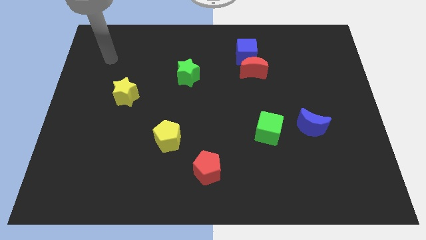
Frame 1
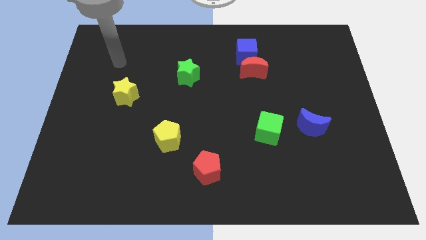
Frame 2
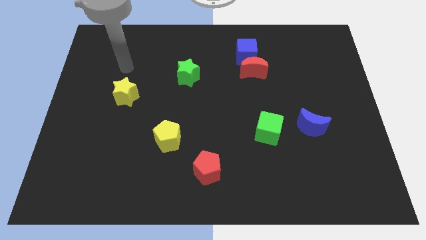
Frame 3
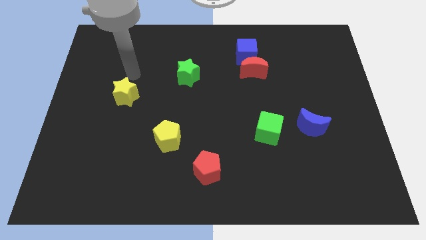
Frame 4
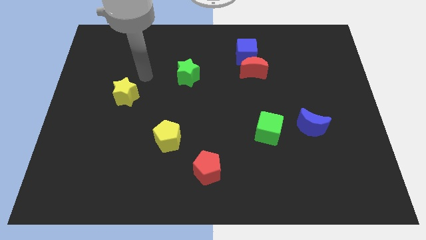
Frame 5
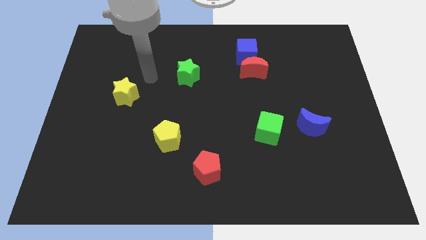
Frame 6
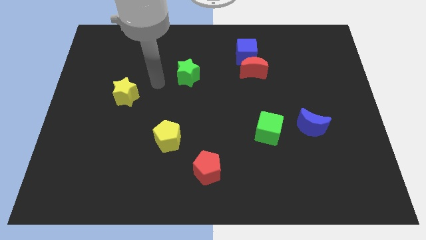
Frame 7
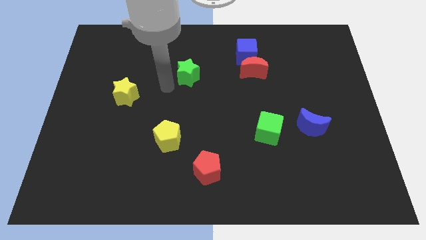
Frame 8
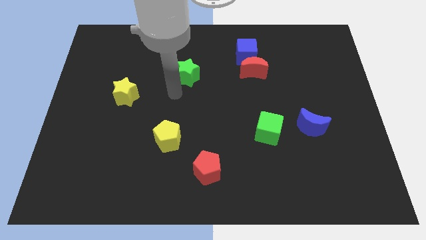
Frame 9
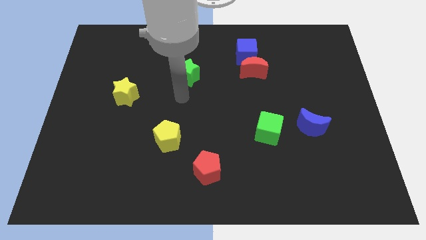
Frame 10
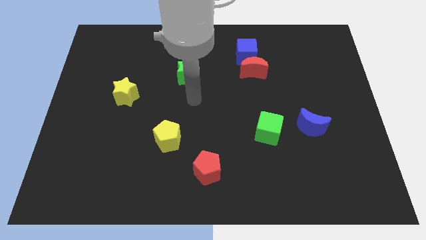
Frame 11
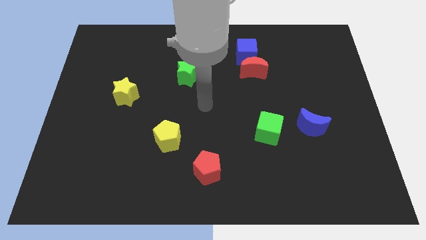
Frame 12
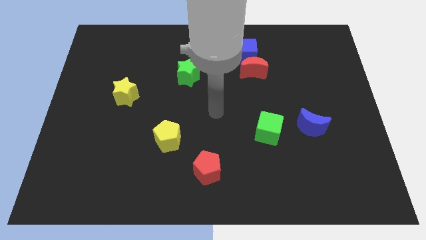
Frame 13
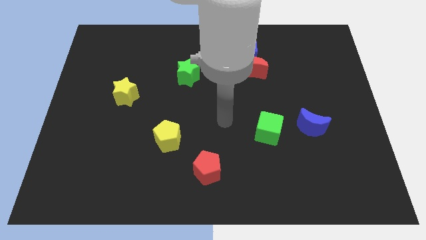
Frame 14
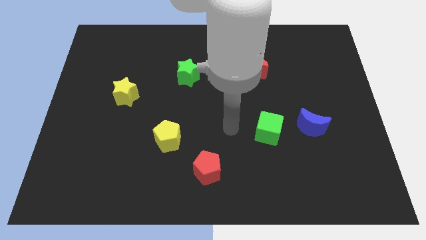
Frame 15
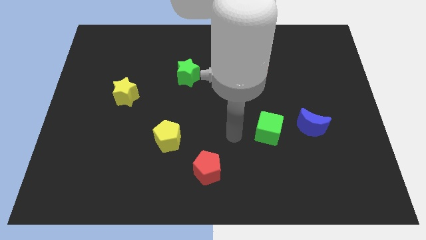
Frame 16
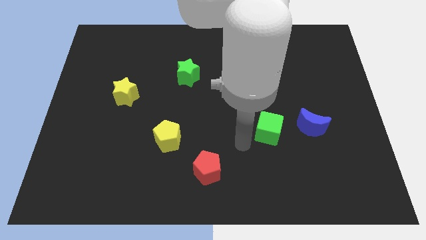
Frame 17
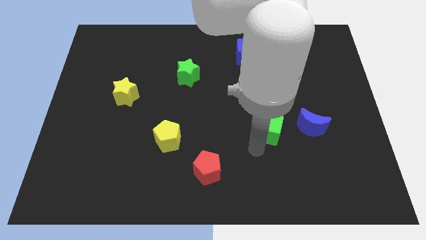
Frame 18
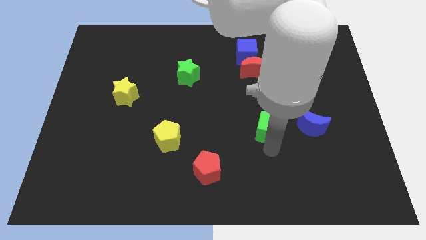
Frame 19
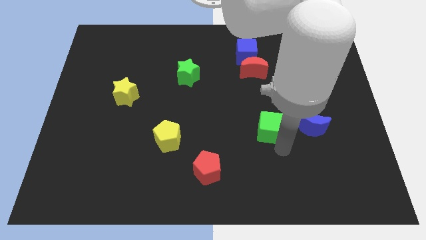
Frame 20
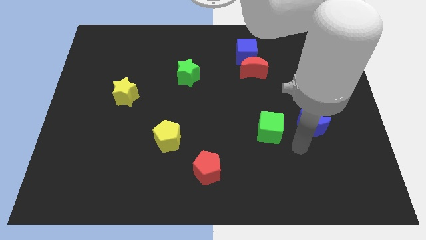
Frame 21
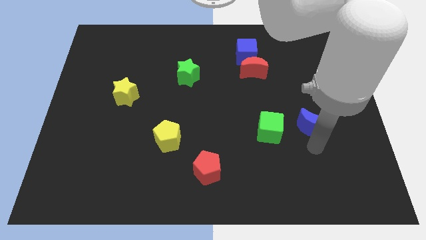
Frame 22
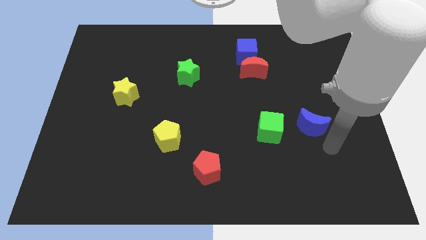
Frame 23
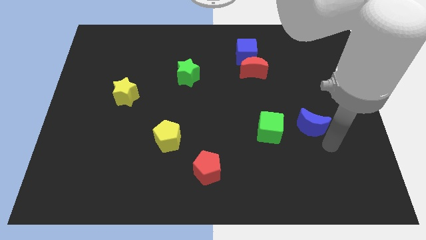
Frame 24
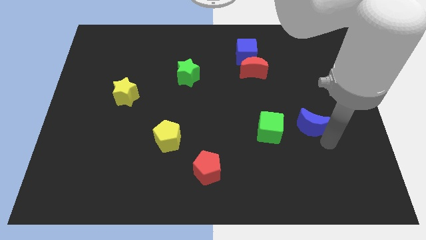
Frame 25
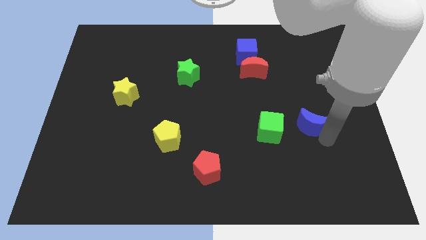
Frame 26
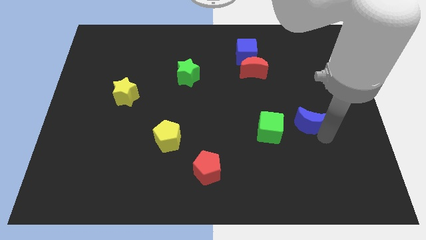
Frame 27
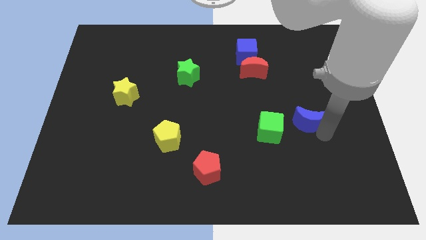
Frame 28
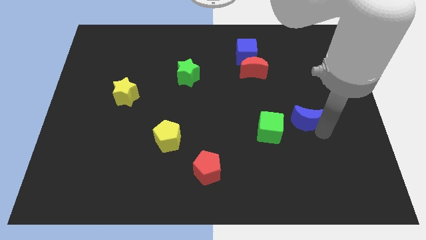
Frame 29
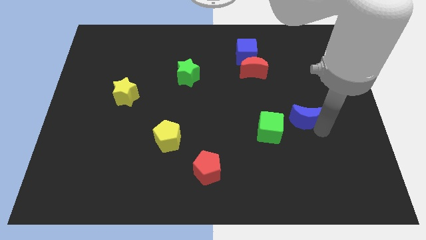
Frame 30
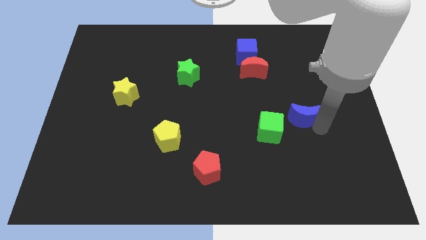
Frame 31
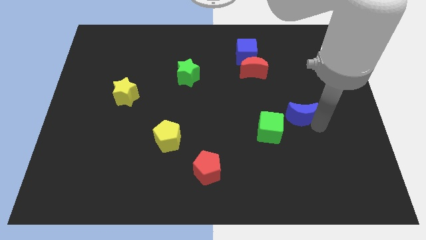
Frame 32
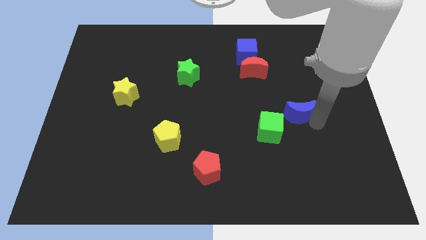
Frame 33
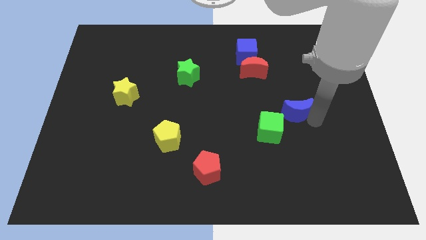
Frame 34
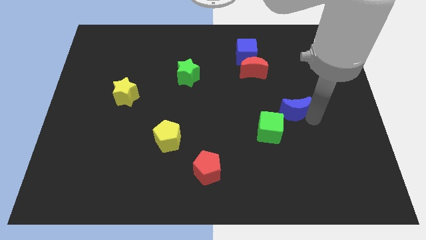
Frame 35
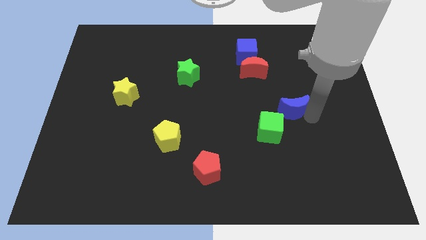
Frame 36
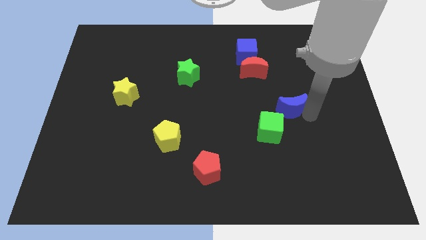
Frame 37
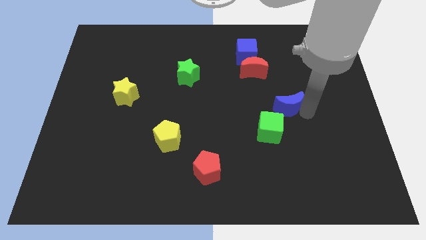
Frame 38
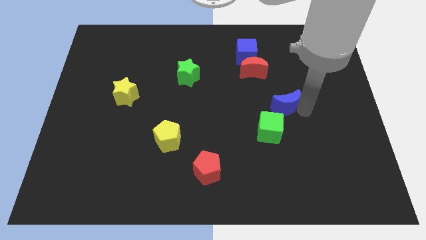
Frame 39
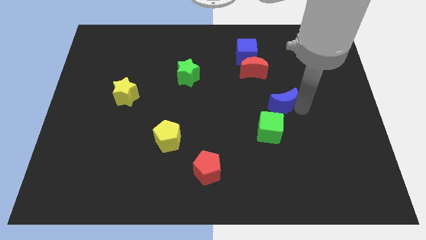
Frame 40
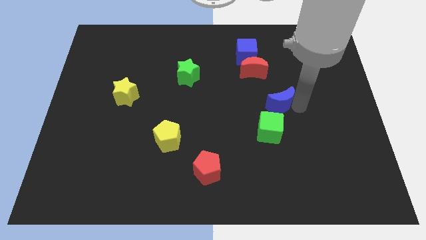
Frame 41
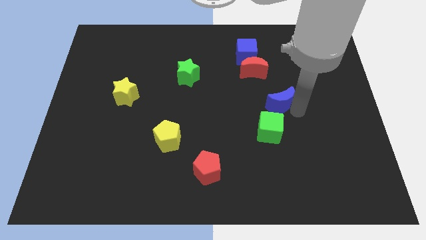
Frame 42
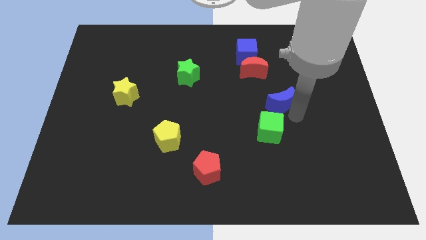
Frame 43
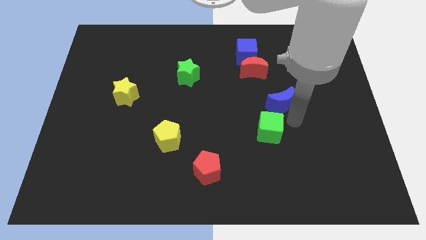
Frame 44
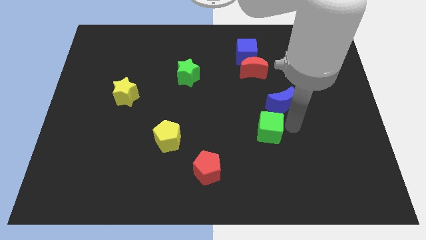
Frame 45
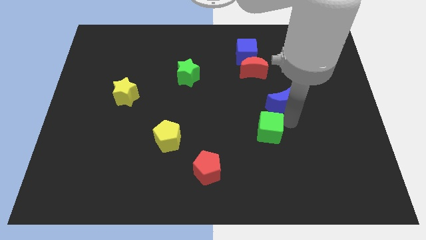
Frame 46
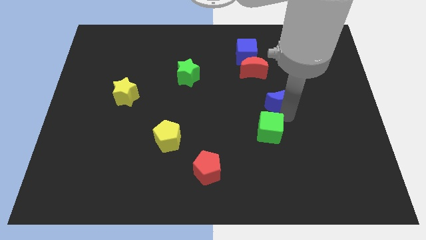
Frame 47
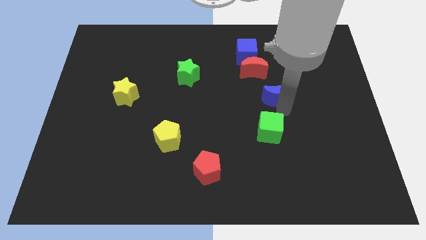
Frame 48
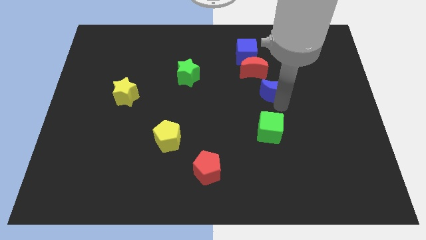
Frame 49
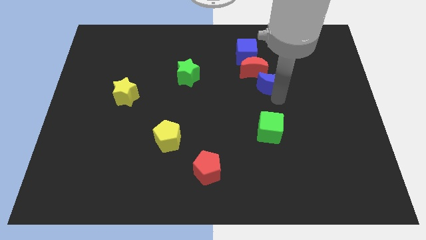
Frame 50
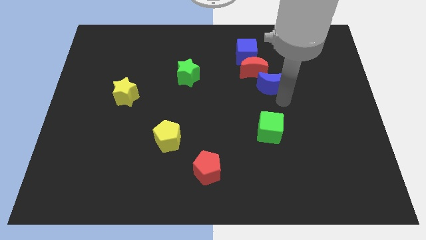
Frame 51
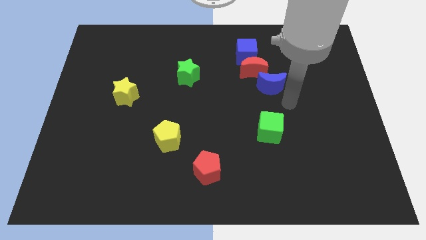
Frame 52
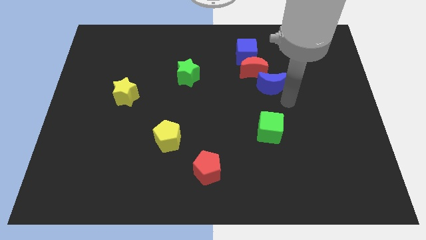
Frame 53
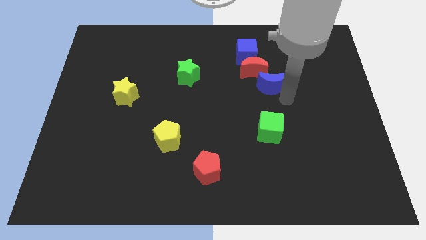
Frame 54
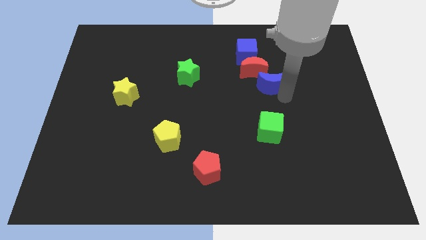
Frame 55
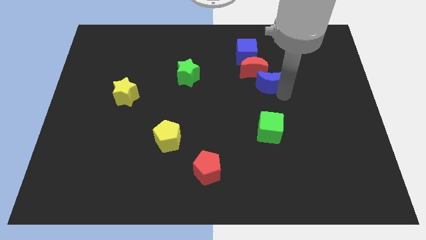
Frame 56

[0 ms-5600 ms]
push the blue moon to the red moon
